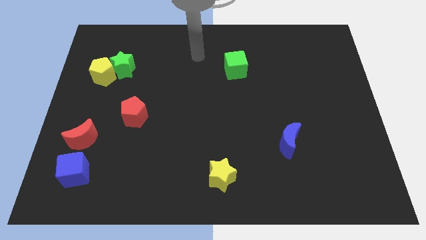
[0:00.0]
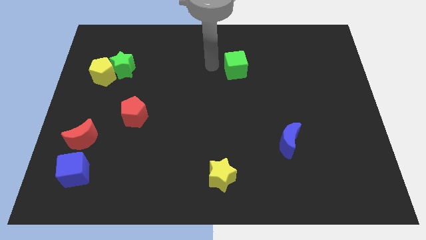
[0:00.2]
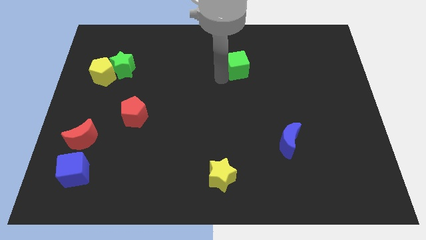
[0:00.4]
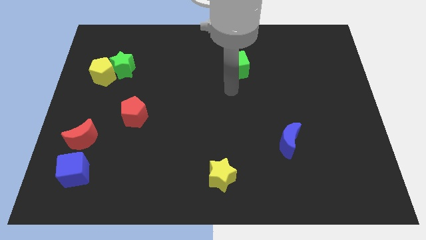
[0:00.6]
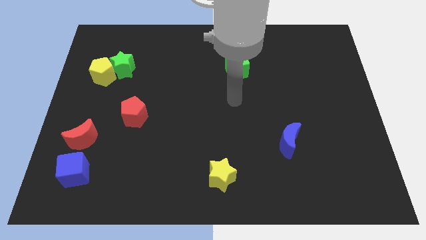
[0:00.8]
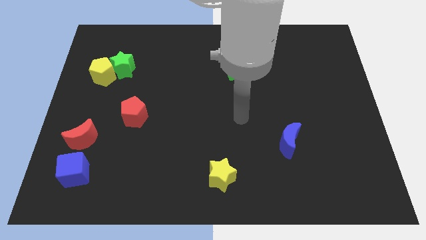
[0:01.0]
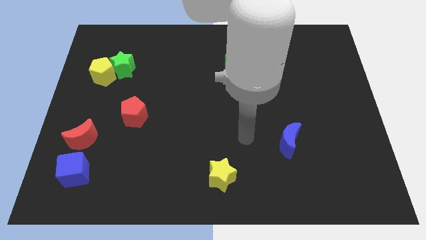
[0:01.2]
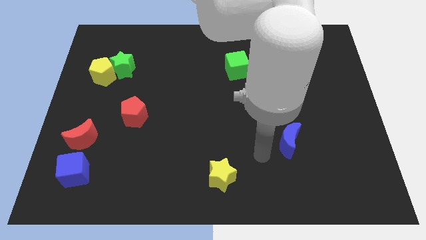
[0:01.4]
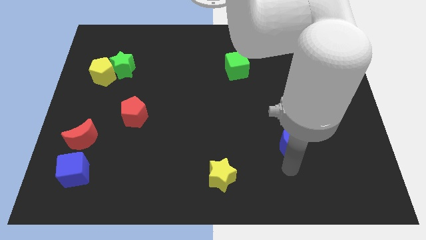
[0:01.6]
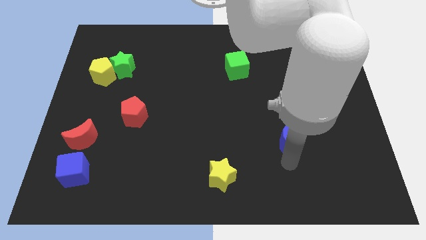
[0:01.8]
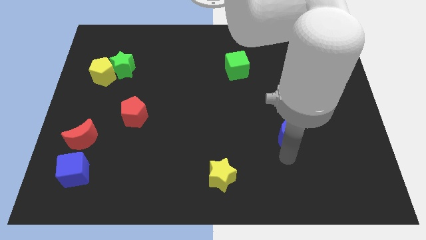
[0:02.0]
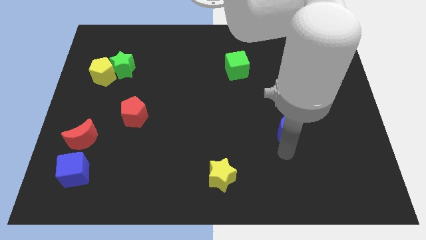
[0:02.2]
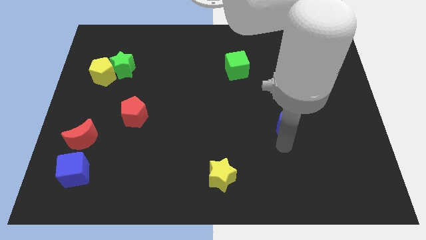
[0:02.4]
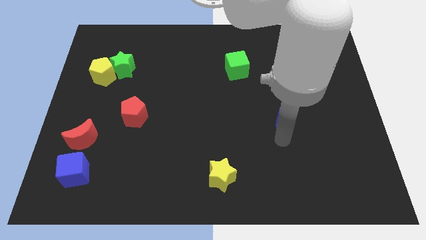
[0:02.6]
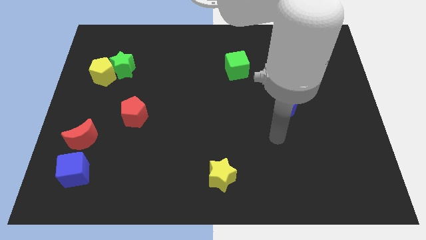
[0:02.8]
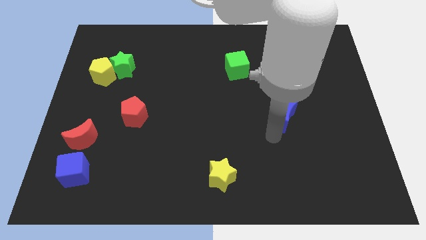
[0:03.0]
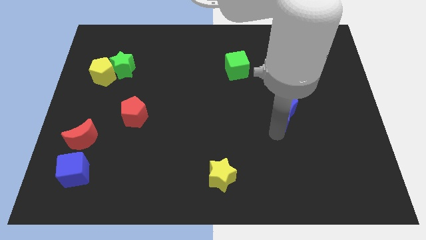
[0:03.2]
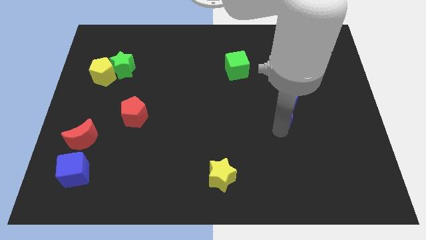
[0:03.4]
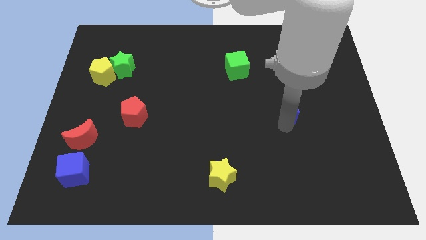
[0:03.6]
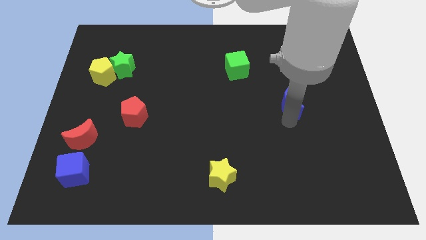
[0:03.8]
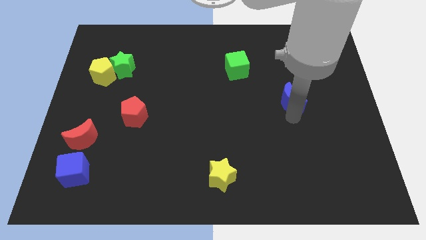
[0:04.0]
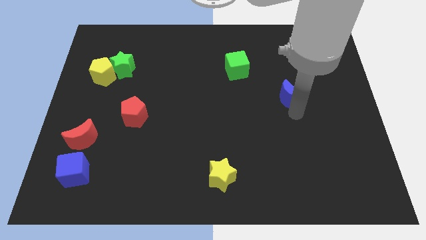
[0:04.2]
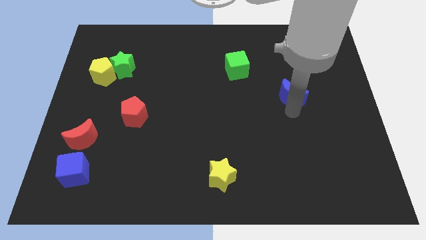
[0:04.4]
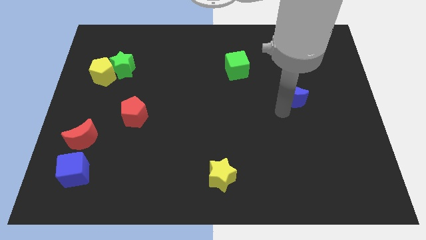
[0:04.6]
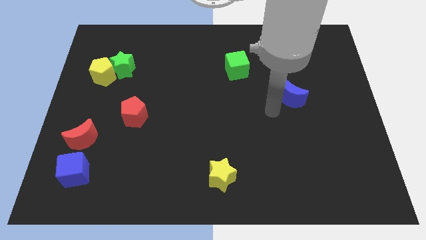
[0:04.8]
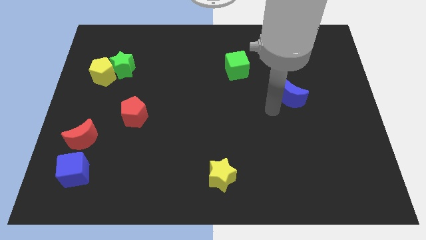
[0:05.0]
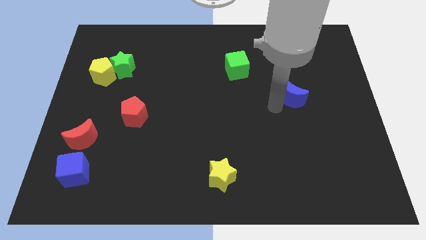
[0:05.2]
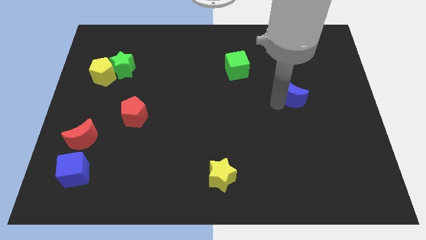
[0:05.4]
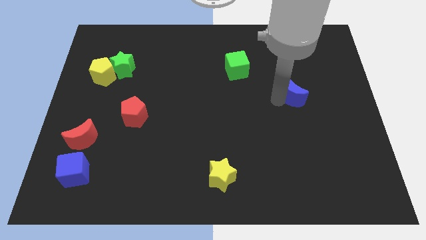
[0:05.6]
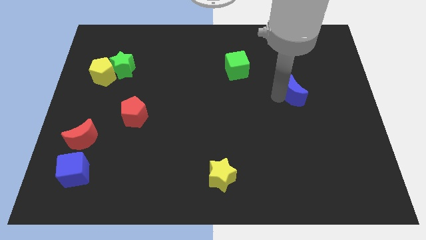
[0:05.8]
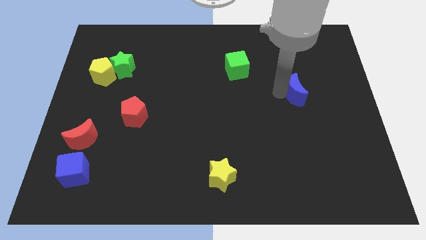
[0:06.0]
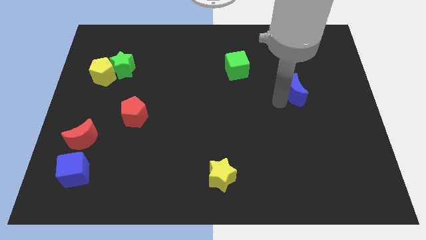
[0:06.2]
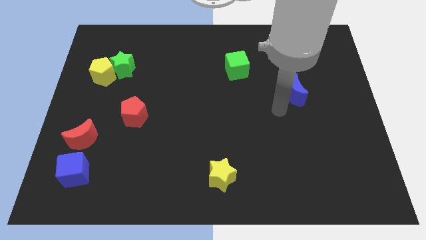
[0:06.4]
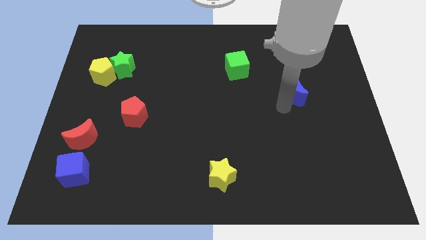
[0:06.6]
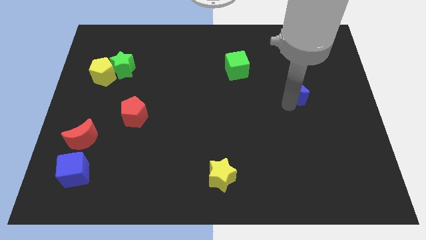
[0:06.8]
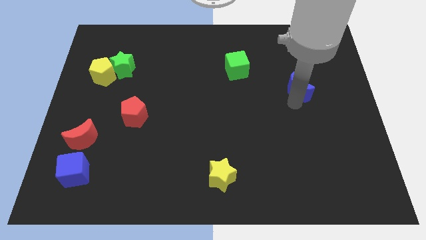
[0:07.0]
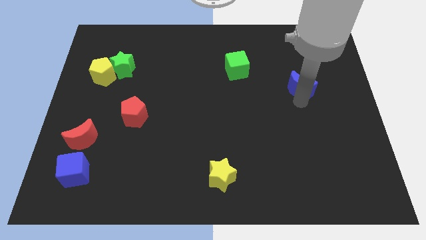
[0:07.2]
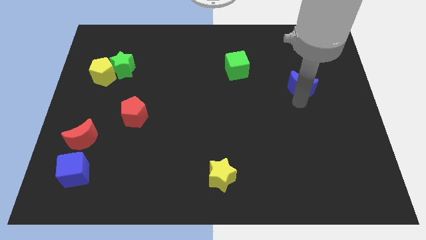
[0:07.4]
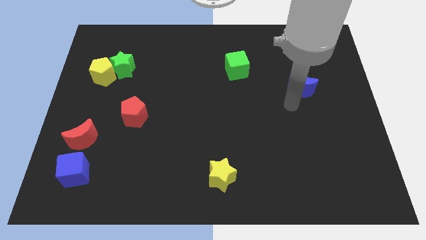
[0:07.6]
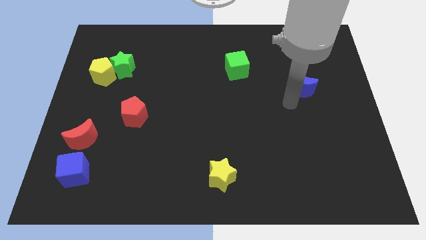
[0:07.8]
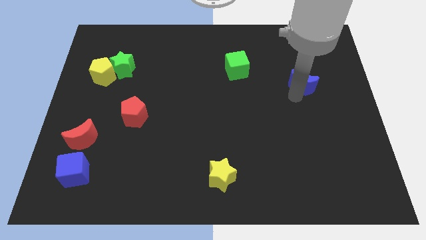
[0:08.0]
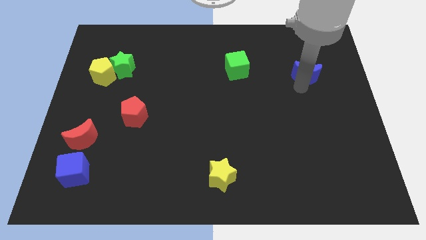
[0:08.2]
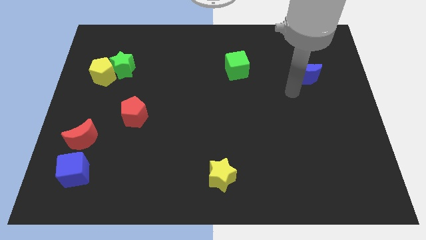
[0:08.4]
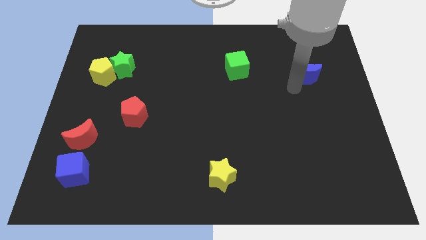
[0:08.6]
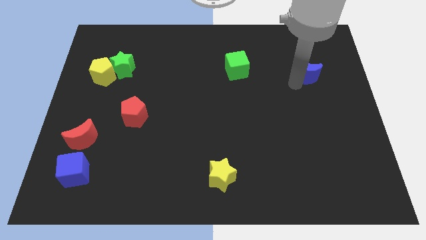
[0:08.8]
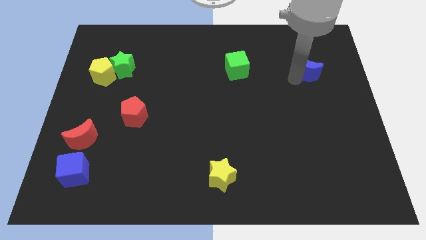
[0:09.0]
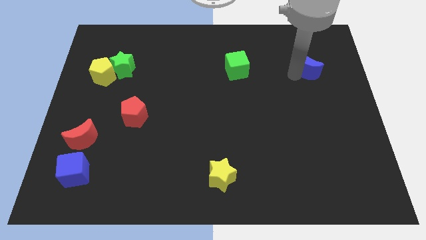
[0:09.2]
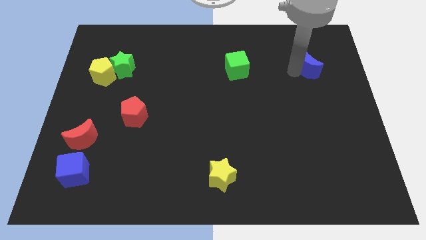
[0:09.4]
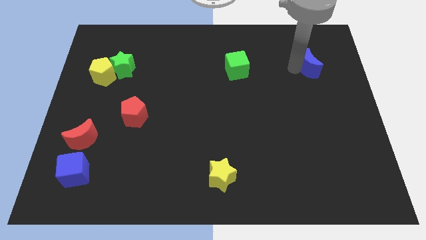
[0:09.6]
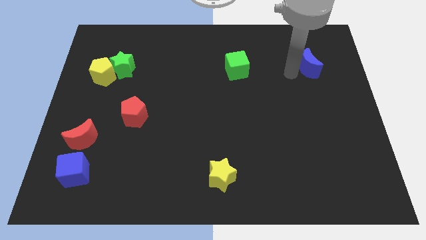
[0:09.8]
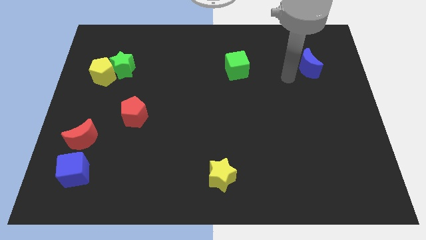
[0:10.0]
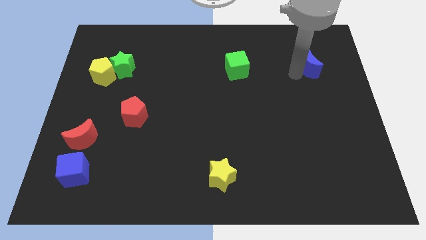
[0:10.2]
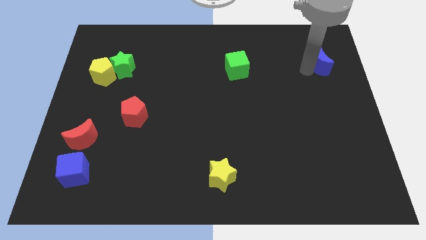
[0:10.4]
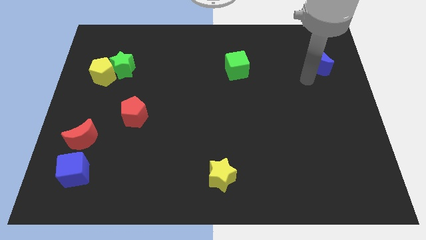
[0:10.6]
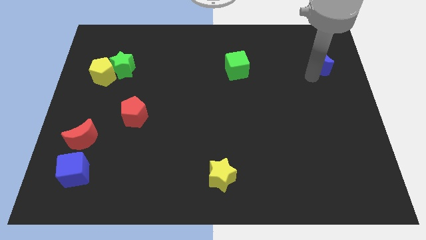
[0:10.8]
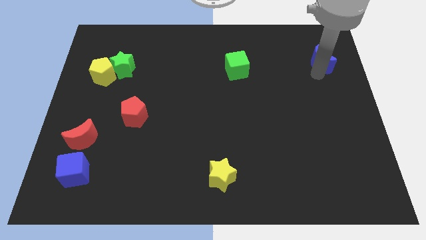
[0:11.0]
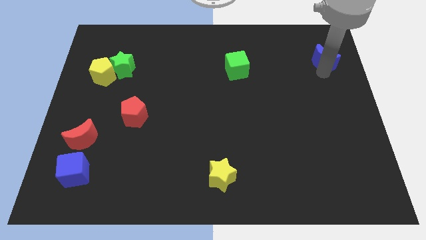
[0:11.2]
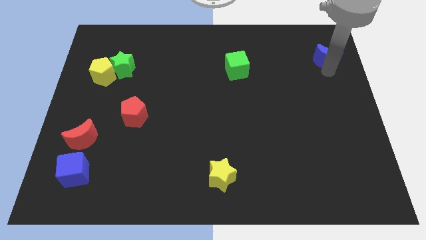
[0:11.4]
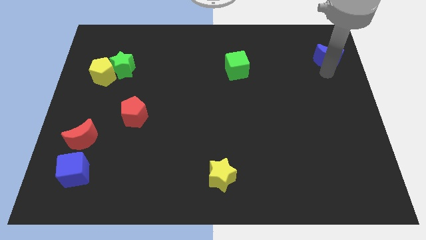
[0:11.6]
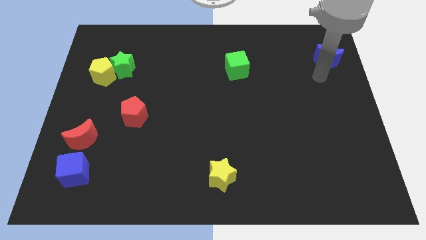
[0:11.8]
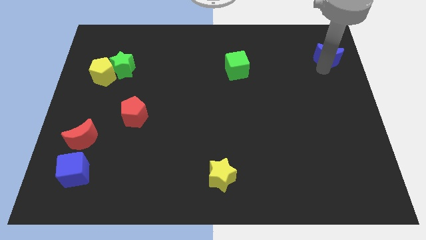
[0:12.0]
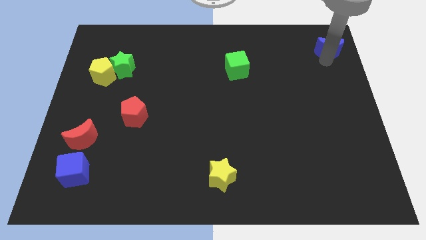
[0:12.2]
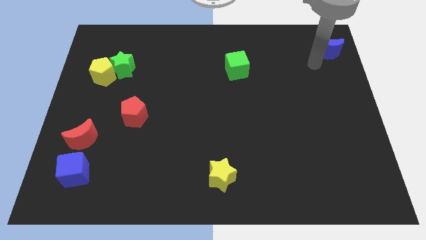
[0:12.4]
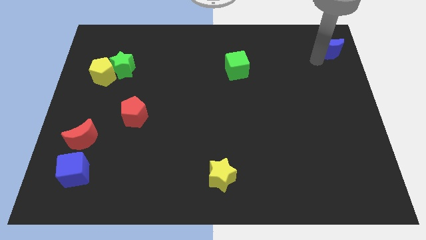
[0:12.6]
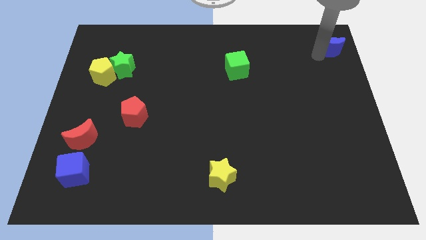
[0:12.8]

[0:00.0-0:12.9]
push the blue moon to the upper right corner
